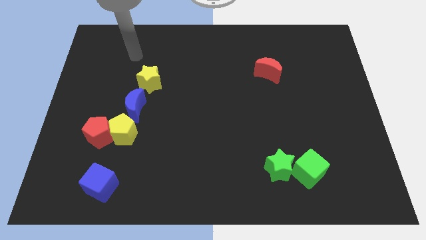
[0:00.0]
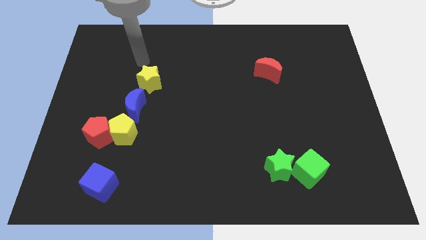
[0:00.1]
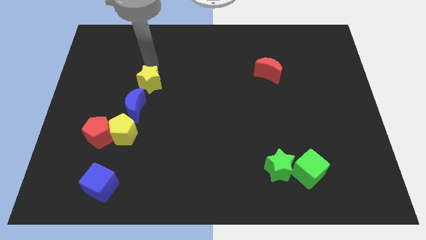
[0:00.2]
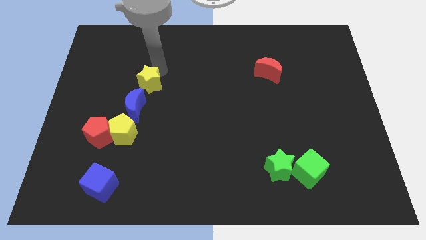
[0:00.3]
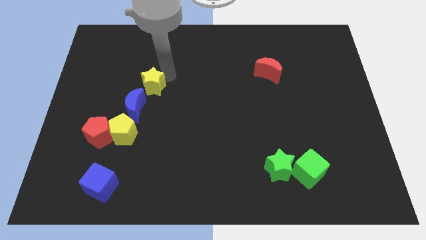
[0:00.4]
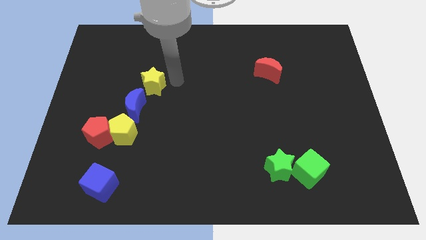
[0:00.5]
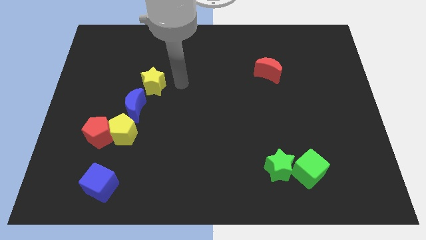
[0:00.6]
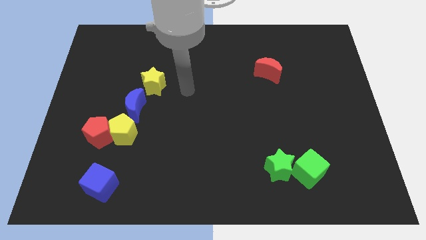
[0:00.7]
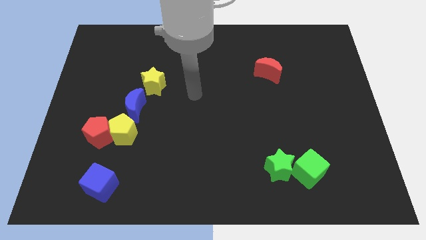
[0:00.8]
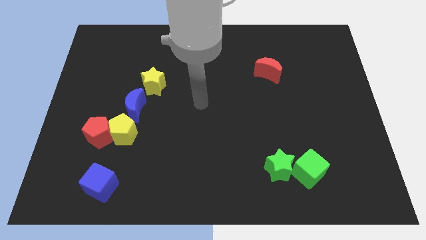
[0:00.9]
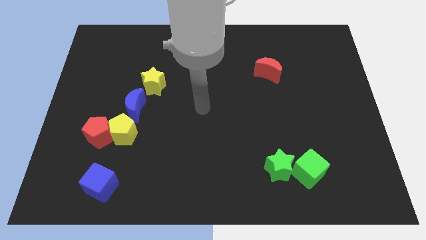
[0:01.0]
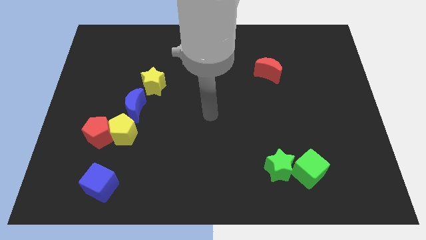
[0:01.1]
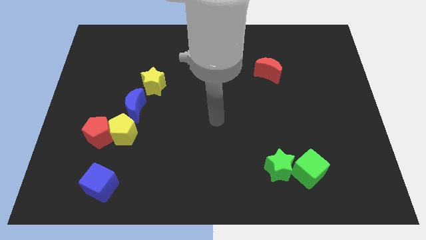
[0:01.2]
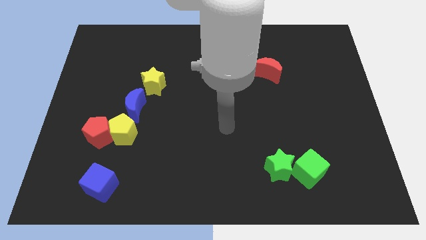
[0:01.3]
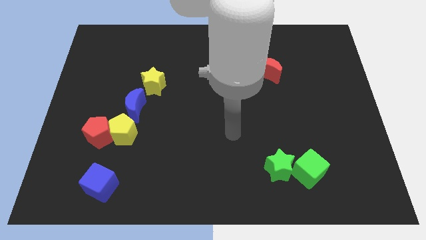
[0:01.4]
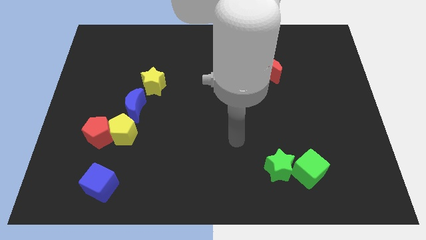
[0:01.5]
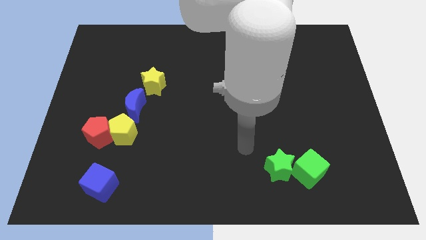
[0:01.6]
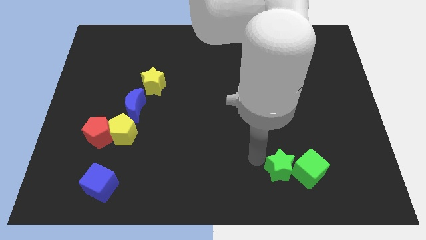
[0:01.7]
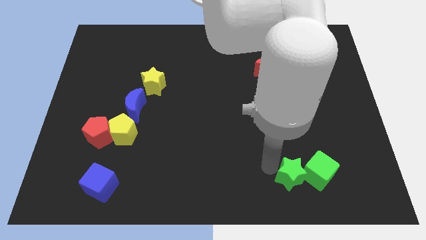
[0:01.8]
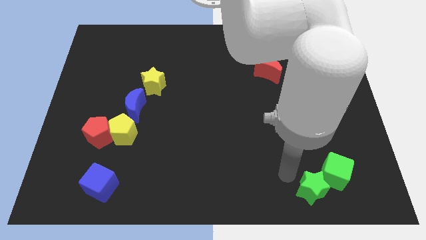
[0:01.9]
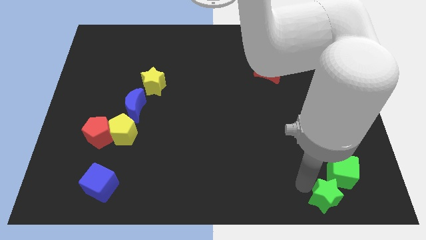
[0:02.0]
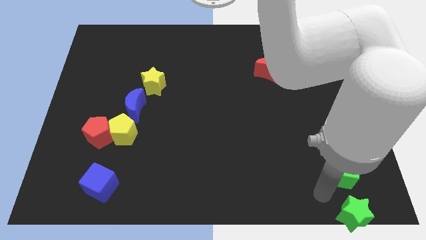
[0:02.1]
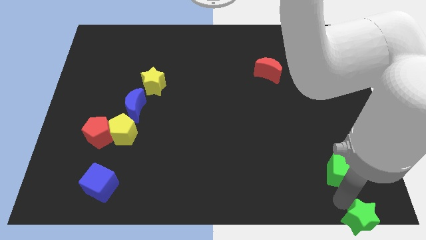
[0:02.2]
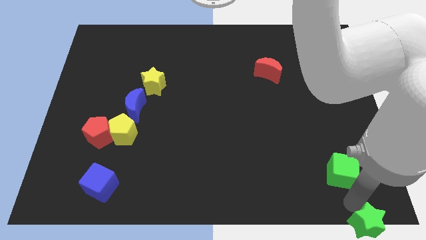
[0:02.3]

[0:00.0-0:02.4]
move the green cube away from the green star

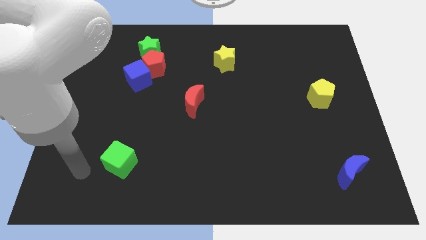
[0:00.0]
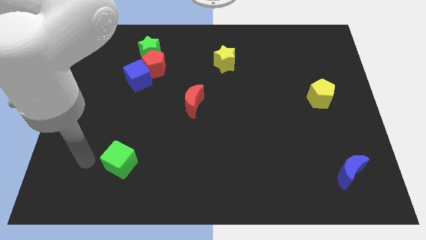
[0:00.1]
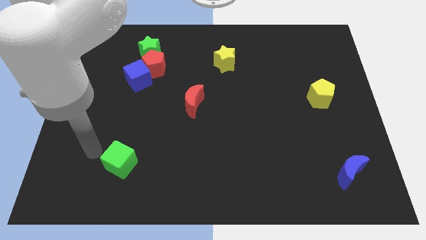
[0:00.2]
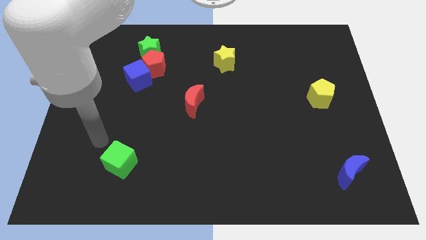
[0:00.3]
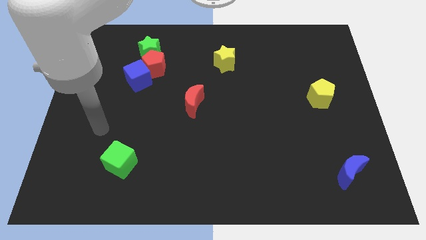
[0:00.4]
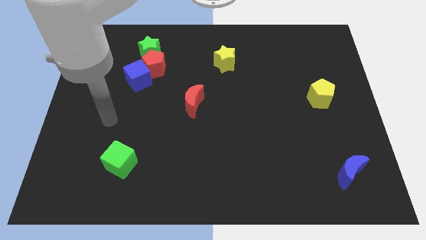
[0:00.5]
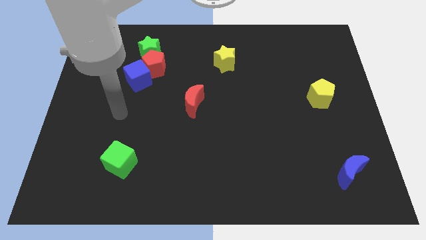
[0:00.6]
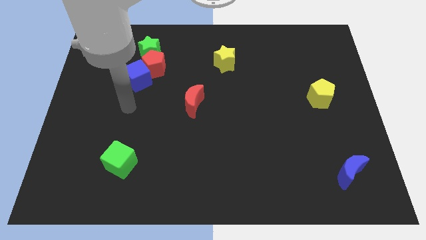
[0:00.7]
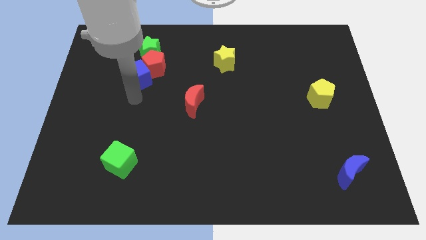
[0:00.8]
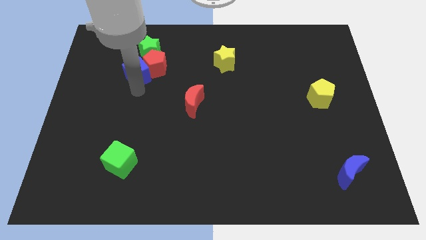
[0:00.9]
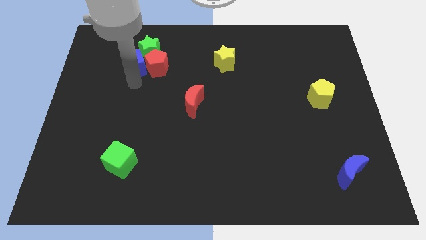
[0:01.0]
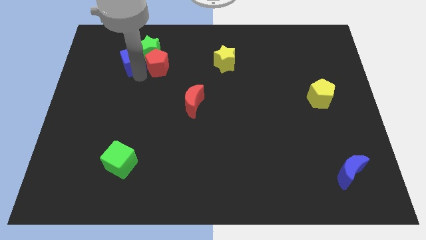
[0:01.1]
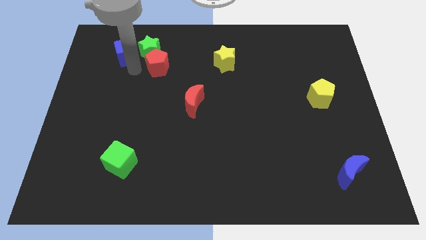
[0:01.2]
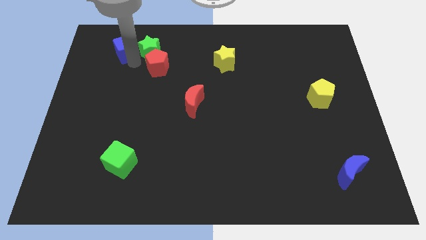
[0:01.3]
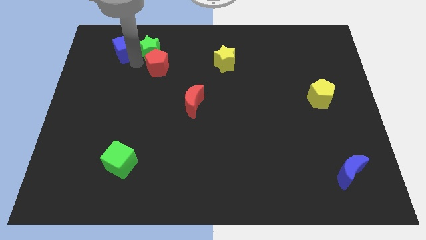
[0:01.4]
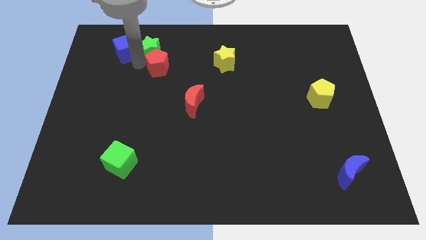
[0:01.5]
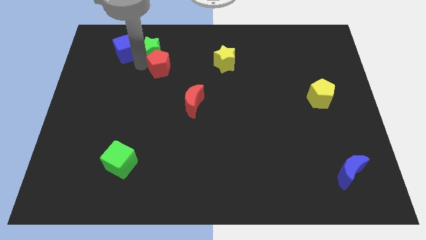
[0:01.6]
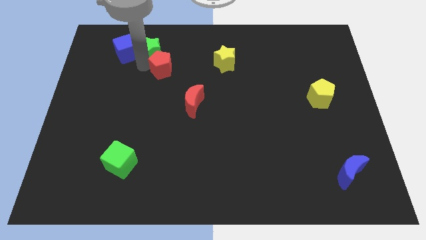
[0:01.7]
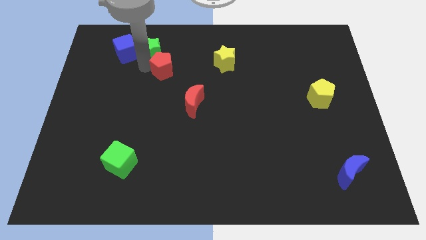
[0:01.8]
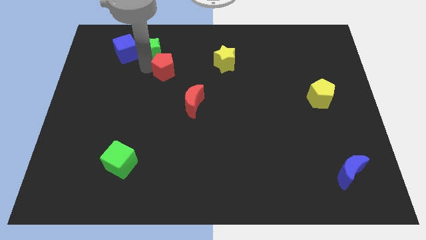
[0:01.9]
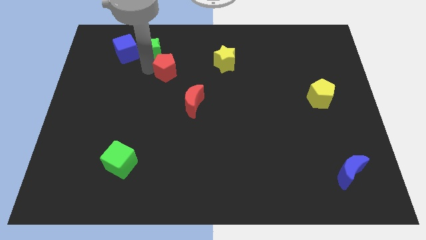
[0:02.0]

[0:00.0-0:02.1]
pull the red pentagon apart from the blue cube and green star

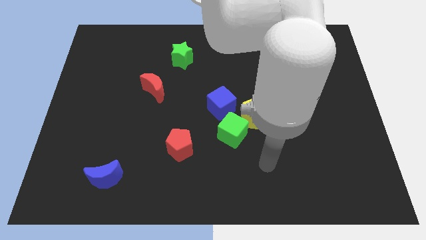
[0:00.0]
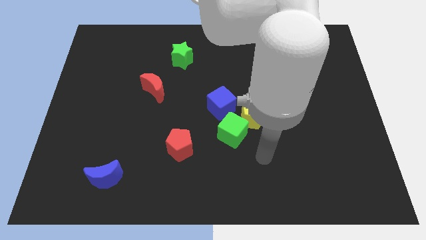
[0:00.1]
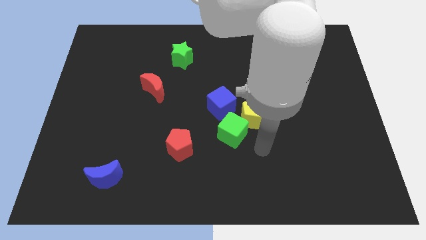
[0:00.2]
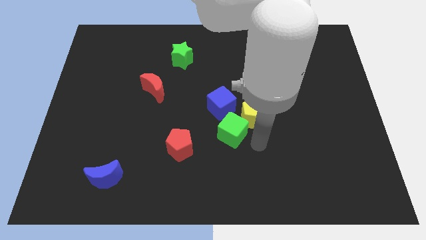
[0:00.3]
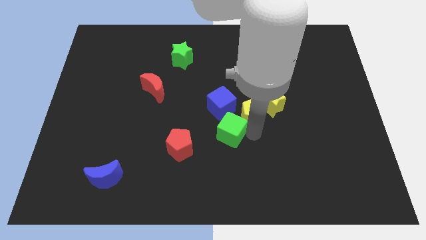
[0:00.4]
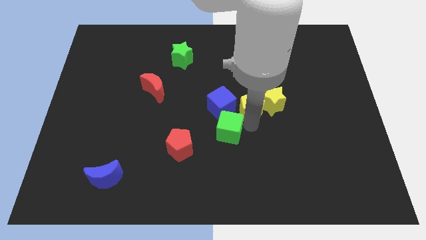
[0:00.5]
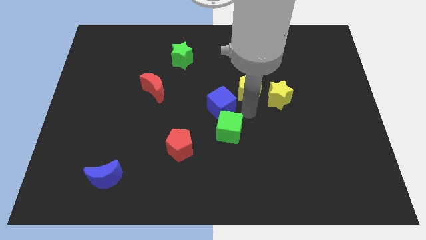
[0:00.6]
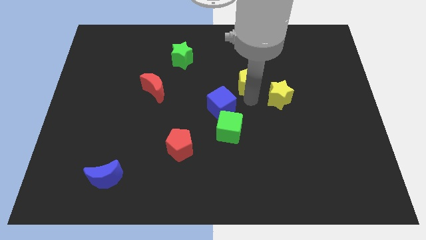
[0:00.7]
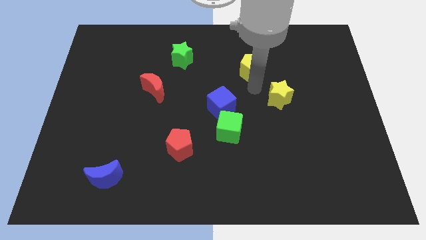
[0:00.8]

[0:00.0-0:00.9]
move the yellow star away from the yellow pentagon

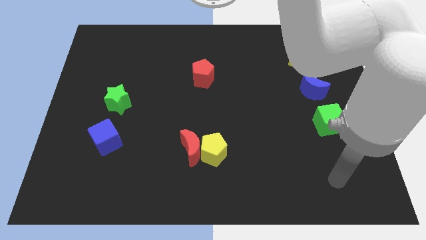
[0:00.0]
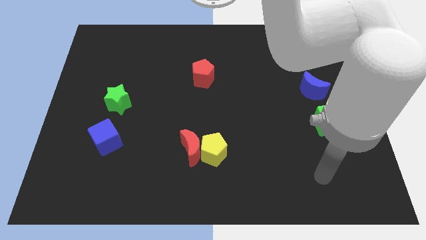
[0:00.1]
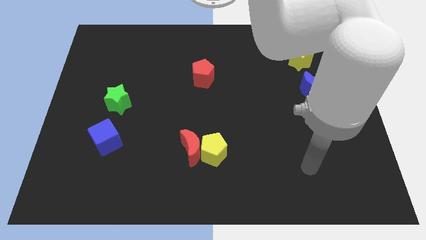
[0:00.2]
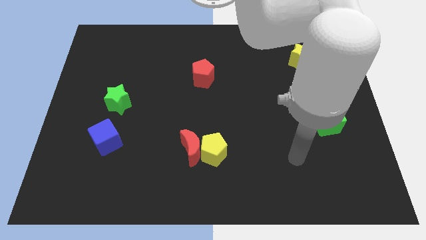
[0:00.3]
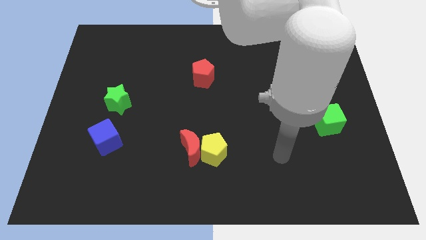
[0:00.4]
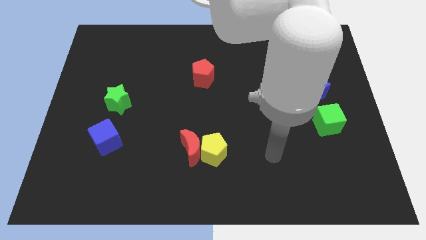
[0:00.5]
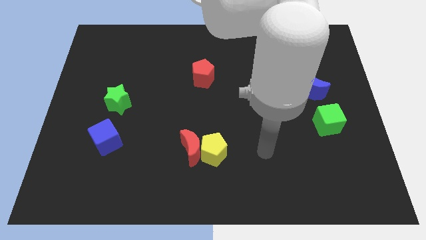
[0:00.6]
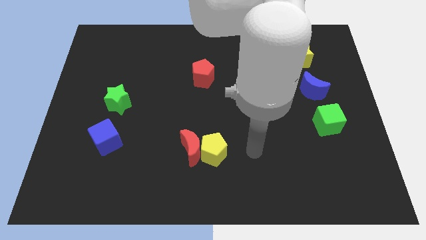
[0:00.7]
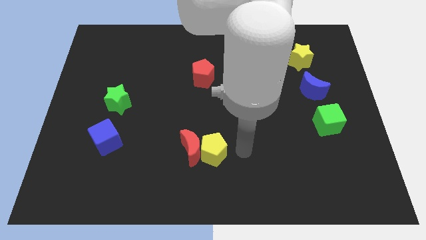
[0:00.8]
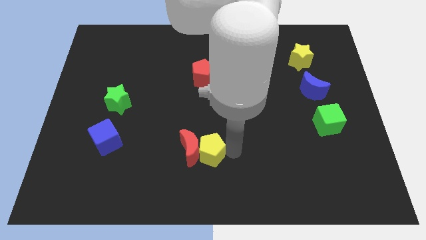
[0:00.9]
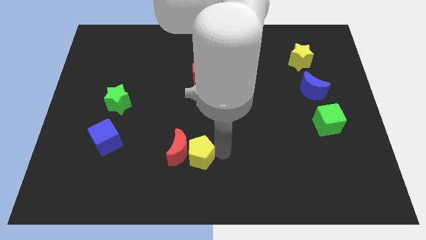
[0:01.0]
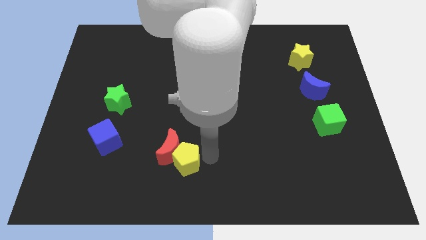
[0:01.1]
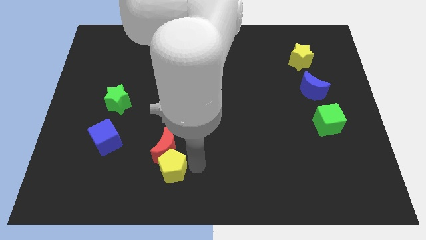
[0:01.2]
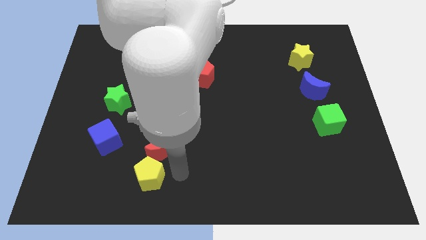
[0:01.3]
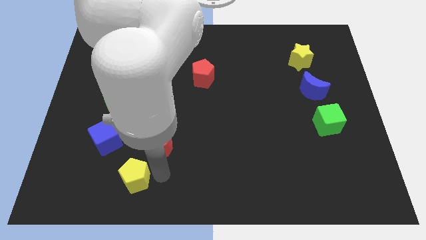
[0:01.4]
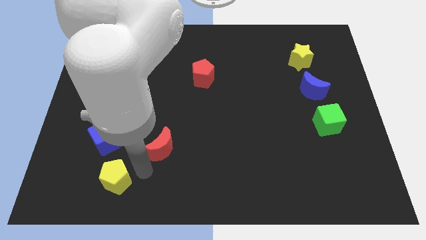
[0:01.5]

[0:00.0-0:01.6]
move the red moon away from the yellow pentagon

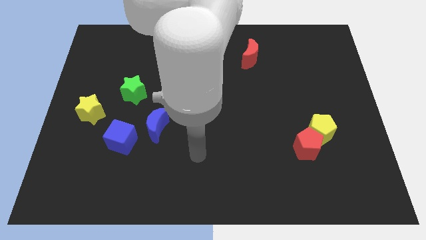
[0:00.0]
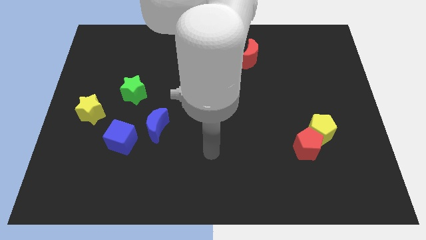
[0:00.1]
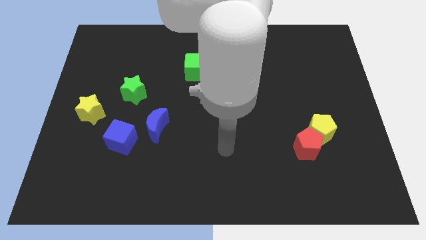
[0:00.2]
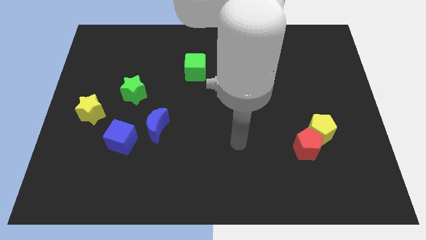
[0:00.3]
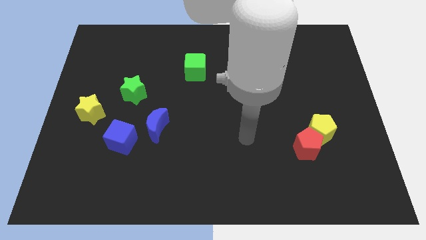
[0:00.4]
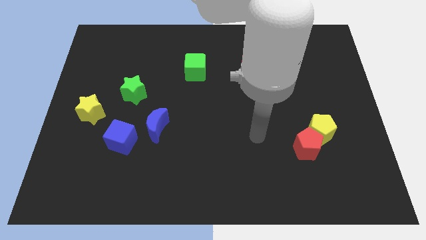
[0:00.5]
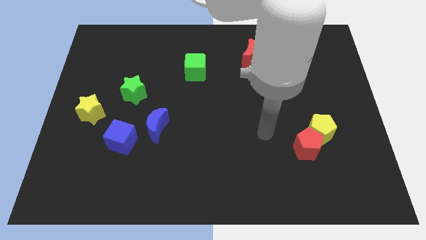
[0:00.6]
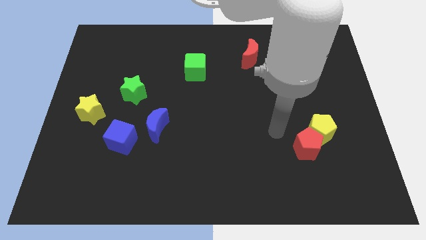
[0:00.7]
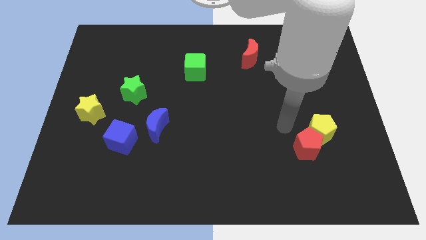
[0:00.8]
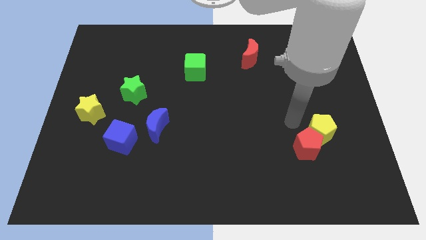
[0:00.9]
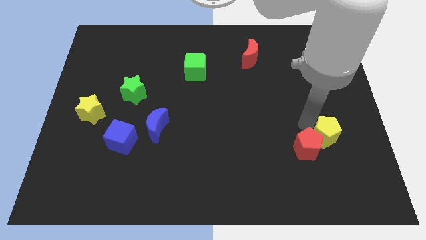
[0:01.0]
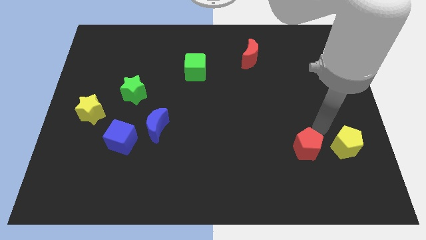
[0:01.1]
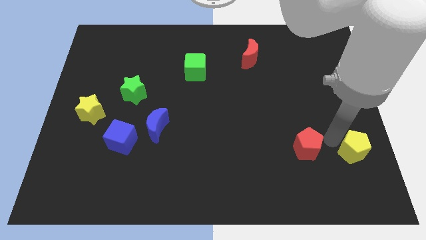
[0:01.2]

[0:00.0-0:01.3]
separate the red pentagon from the yellow pentagon

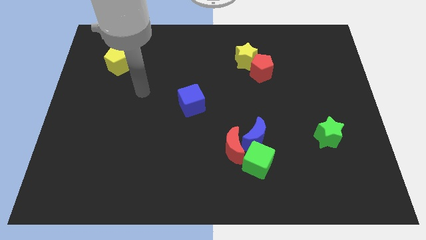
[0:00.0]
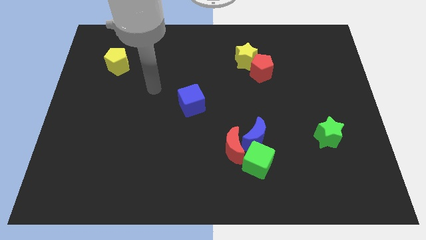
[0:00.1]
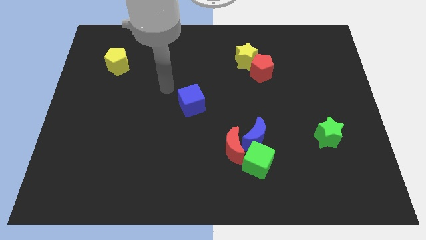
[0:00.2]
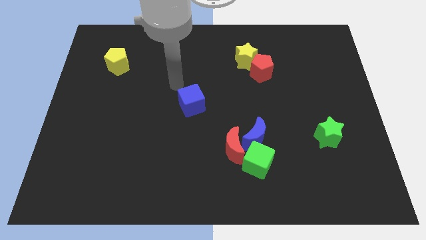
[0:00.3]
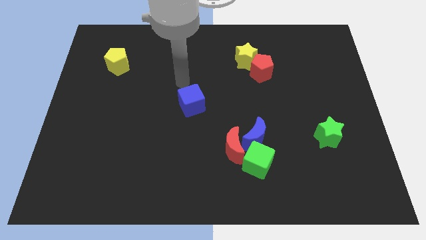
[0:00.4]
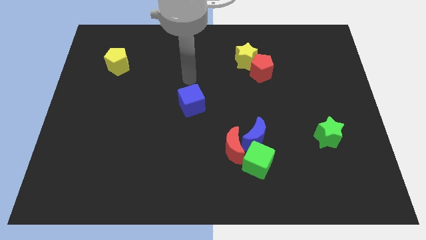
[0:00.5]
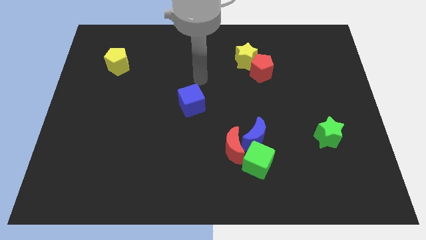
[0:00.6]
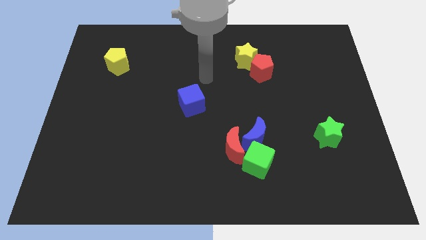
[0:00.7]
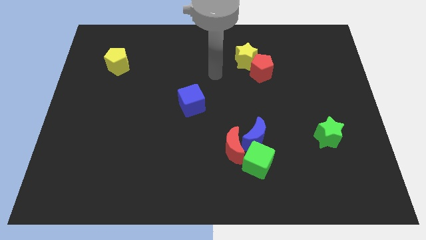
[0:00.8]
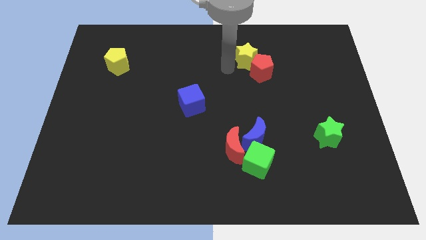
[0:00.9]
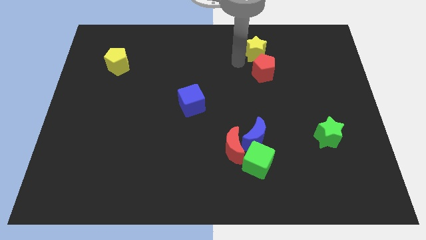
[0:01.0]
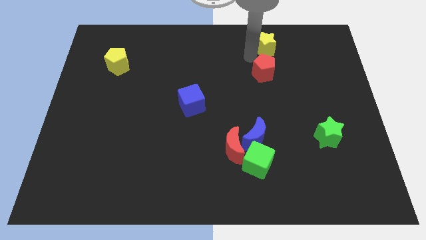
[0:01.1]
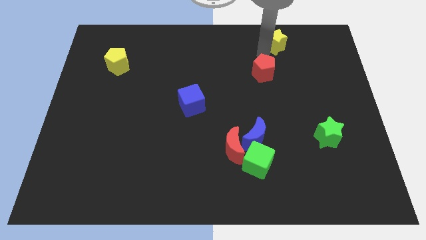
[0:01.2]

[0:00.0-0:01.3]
move the red pentagon away from the yellow star
